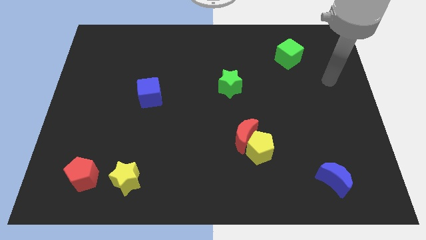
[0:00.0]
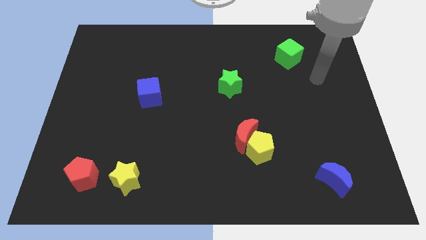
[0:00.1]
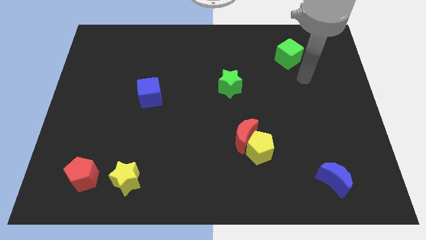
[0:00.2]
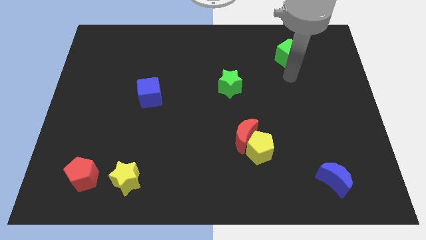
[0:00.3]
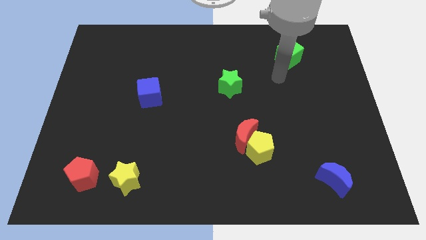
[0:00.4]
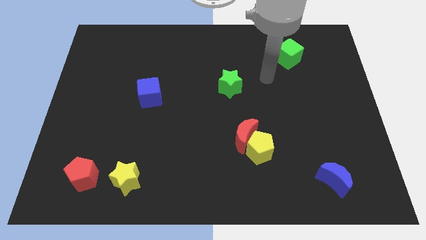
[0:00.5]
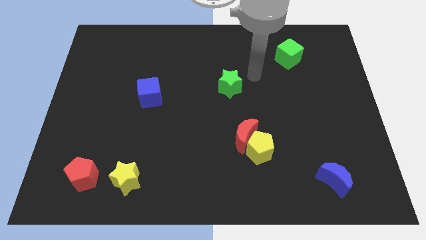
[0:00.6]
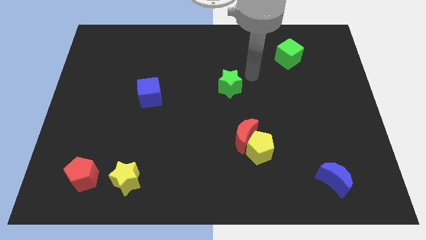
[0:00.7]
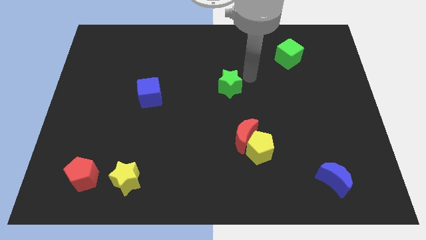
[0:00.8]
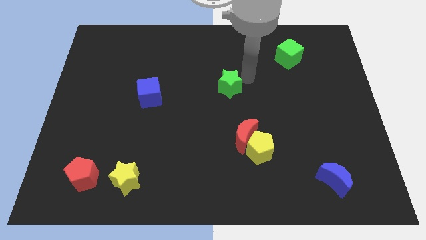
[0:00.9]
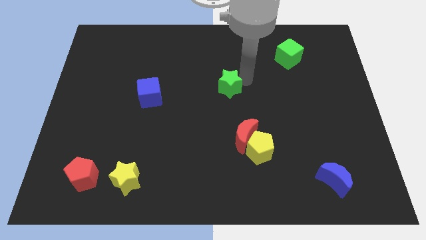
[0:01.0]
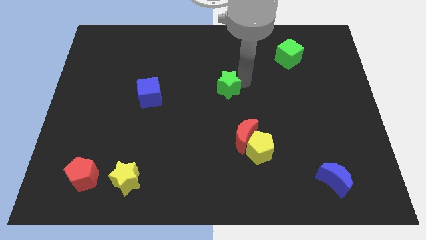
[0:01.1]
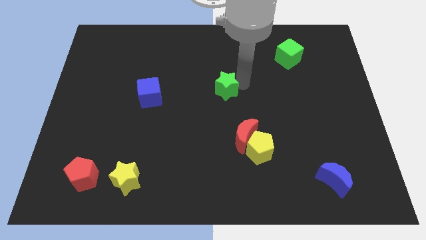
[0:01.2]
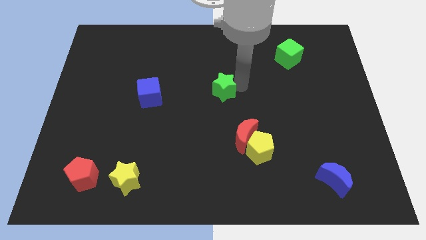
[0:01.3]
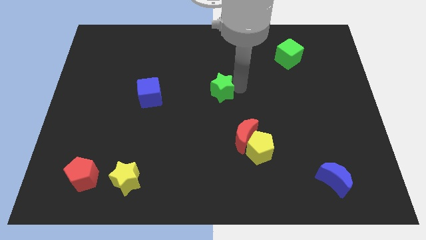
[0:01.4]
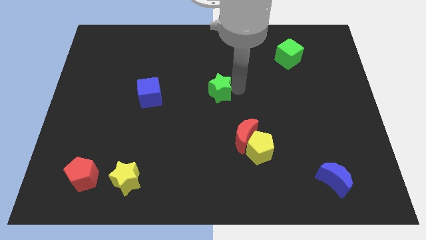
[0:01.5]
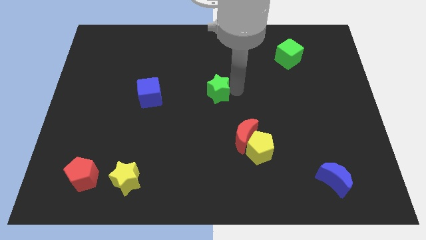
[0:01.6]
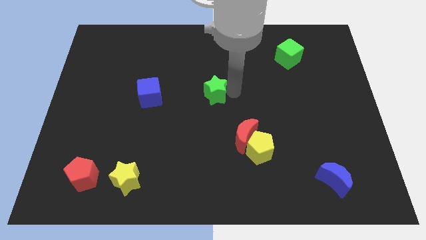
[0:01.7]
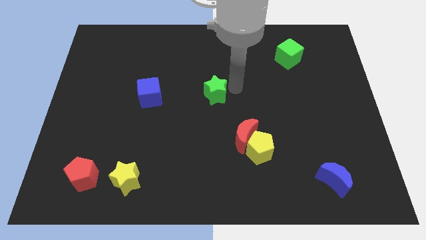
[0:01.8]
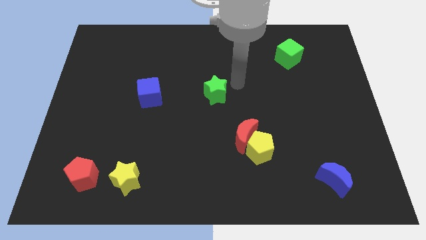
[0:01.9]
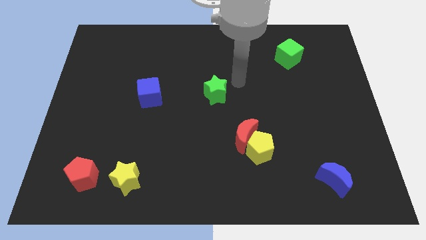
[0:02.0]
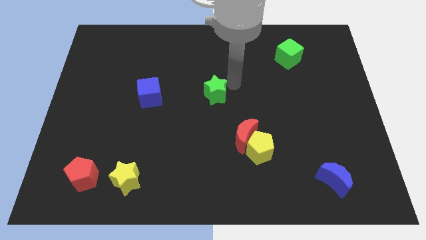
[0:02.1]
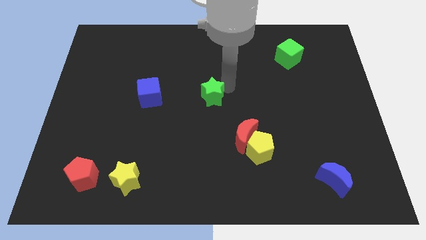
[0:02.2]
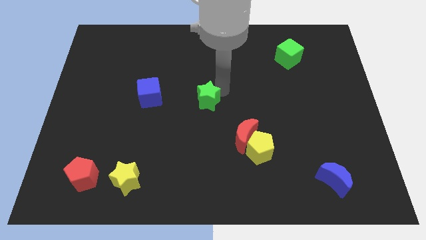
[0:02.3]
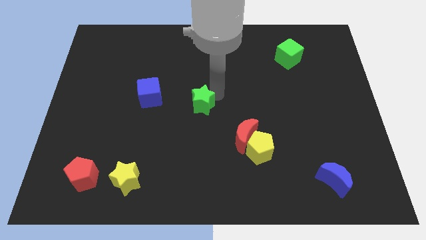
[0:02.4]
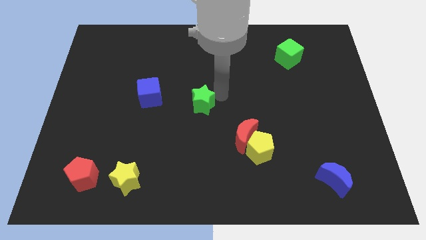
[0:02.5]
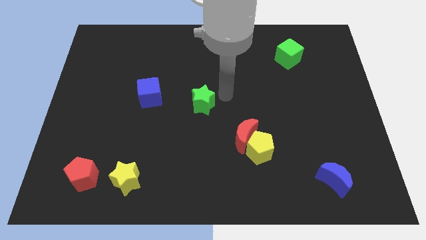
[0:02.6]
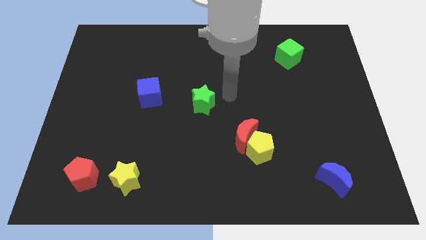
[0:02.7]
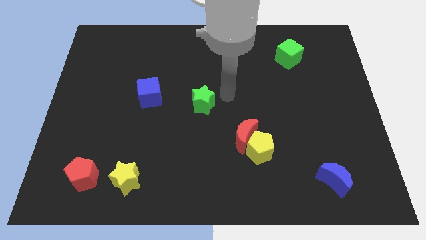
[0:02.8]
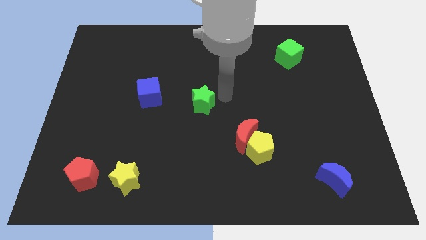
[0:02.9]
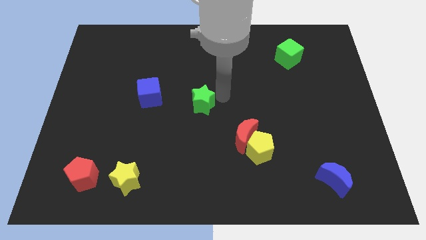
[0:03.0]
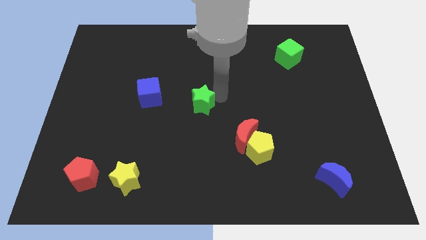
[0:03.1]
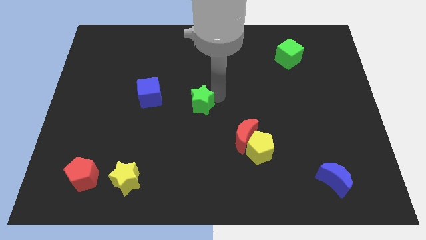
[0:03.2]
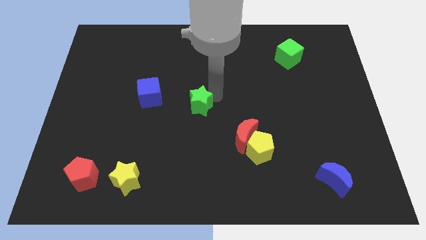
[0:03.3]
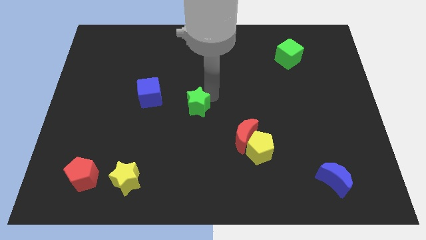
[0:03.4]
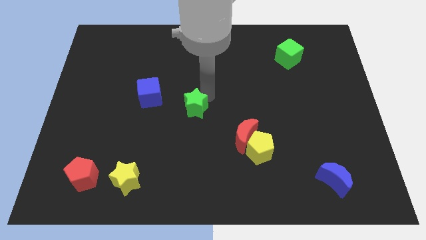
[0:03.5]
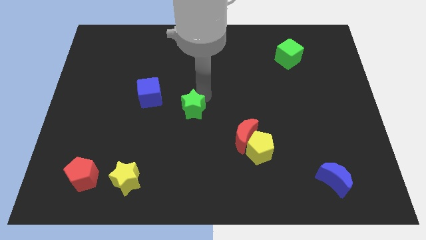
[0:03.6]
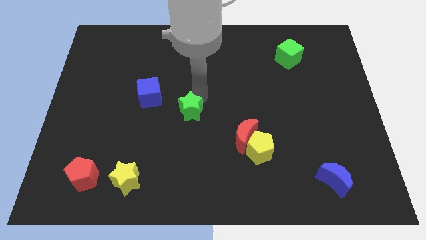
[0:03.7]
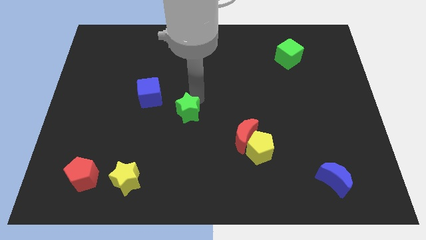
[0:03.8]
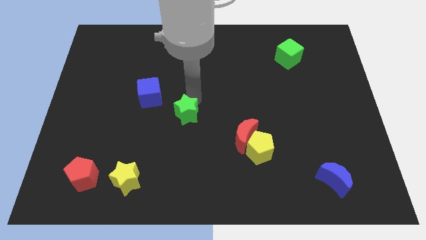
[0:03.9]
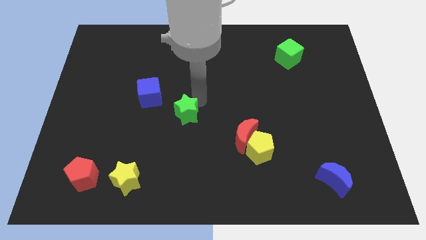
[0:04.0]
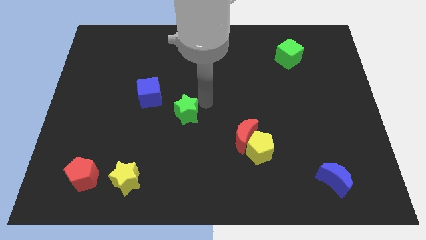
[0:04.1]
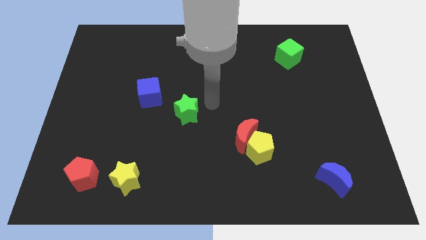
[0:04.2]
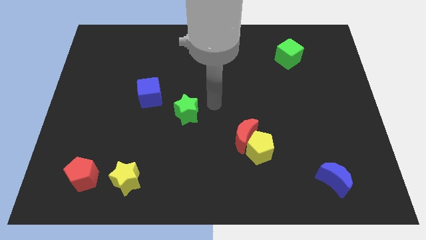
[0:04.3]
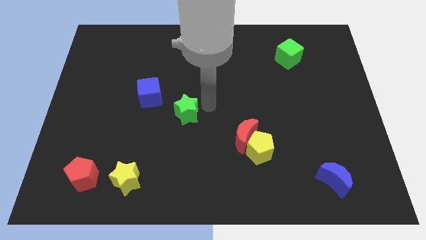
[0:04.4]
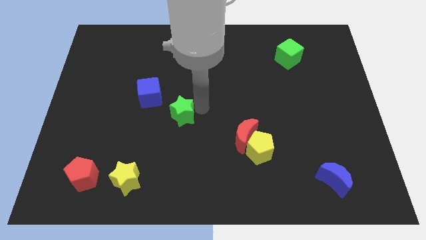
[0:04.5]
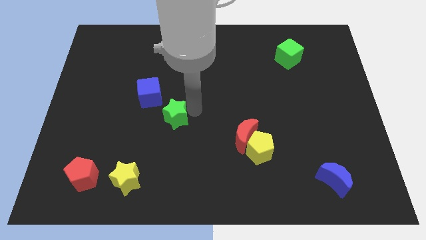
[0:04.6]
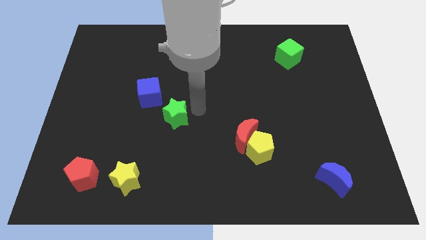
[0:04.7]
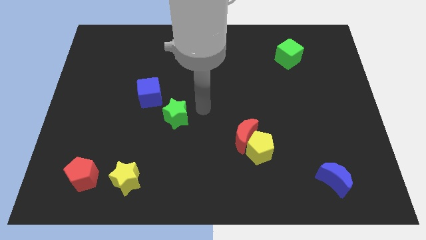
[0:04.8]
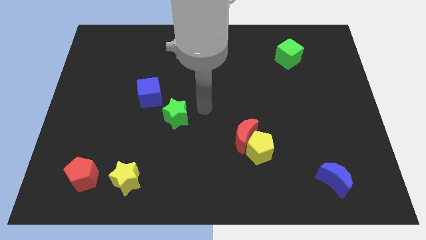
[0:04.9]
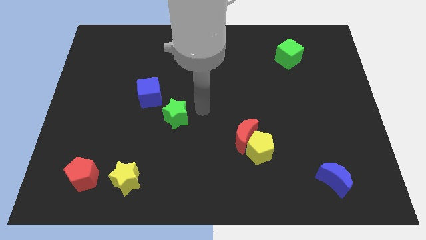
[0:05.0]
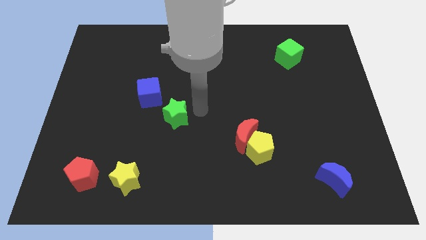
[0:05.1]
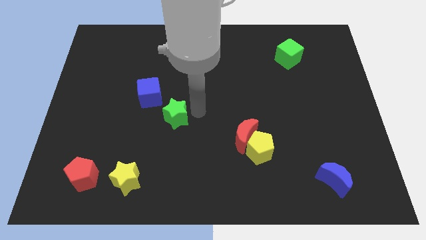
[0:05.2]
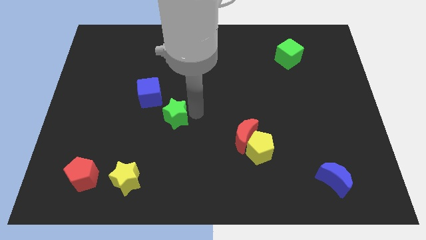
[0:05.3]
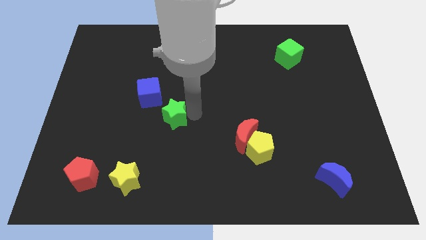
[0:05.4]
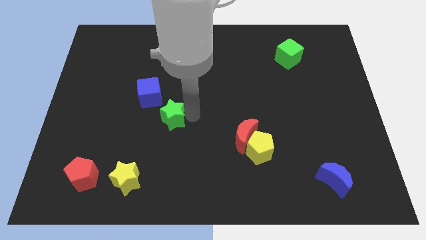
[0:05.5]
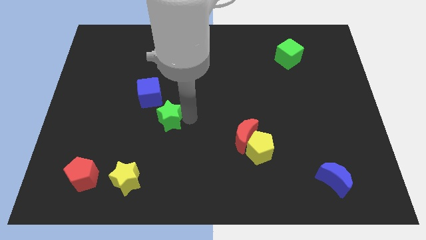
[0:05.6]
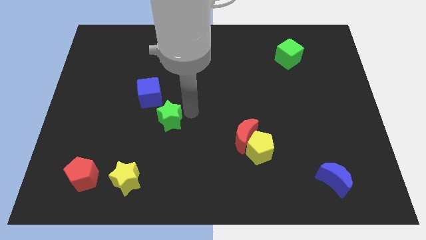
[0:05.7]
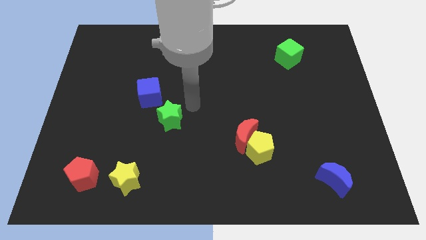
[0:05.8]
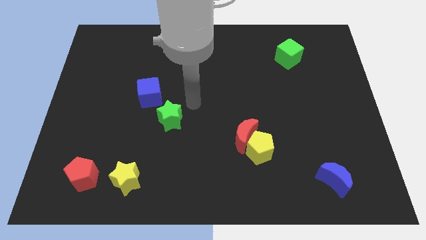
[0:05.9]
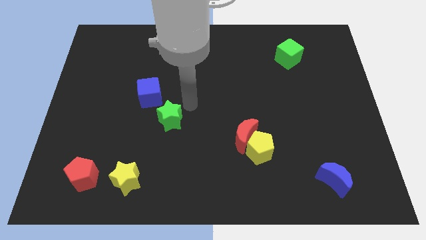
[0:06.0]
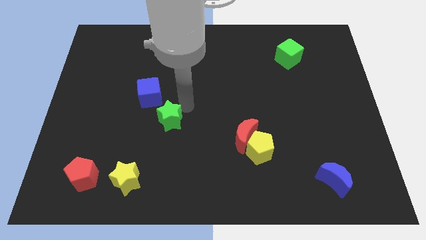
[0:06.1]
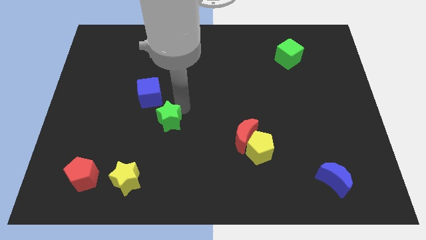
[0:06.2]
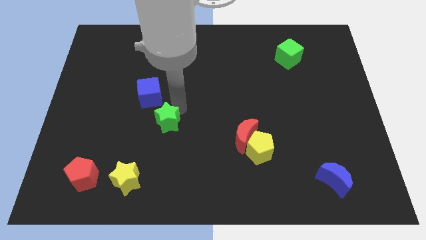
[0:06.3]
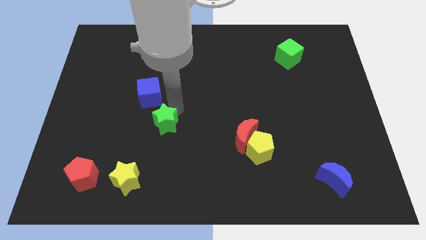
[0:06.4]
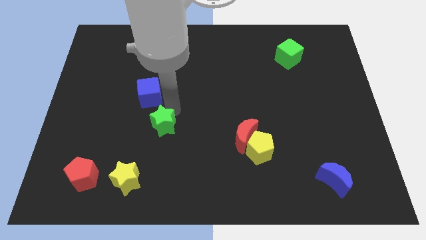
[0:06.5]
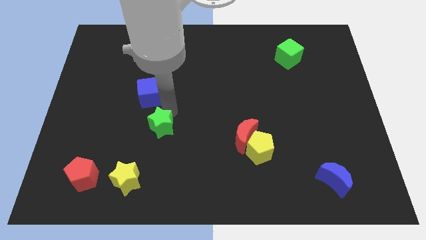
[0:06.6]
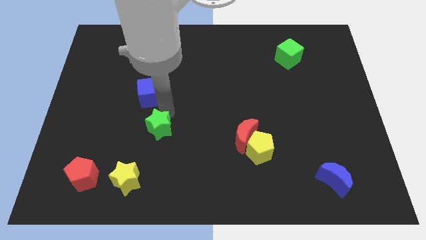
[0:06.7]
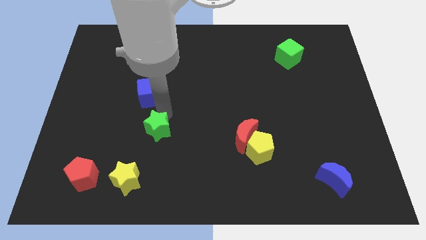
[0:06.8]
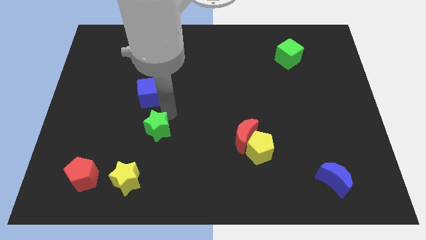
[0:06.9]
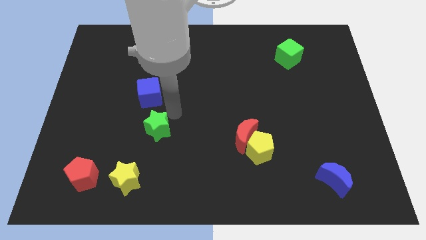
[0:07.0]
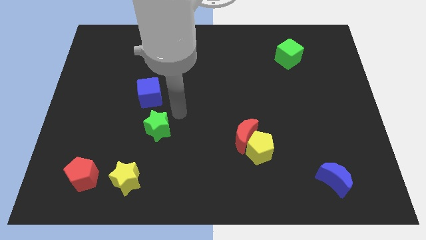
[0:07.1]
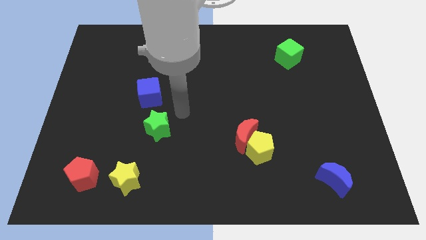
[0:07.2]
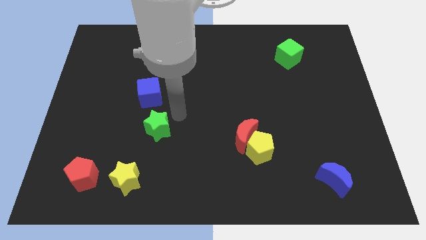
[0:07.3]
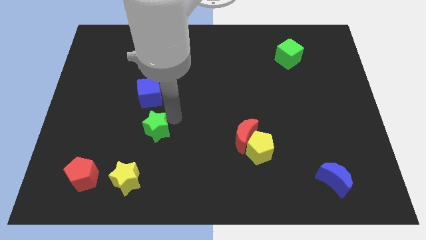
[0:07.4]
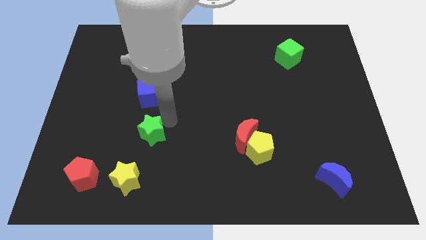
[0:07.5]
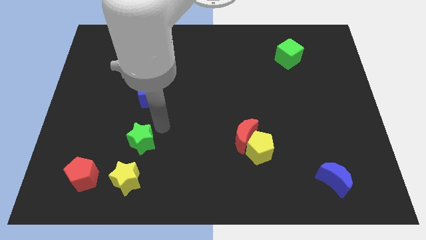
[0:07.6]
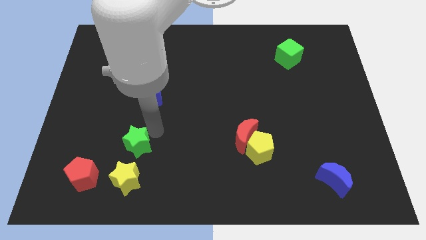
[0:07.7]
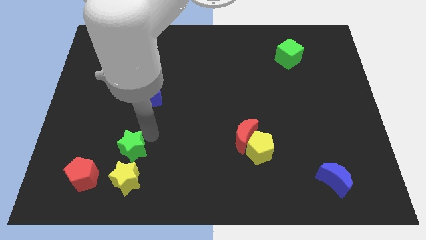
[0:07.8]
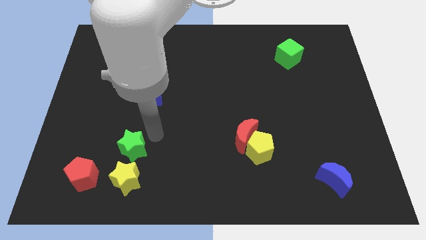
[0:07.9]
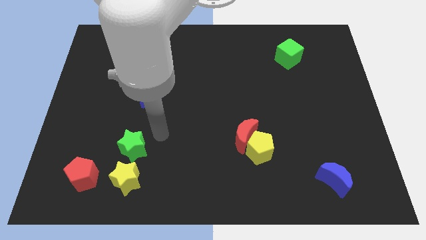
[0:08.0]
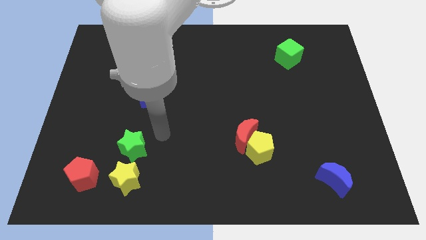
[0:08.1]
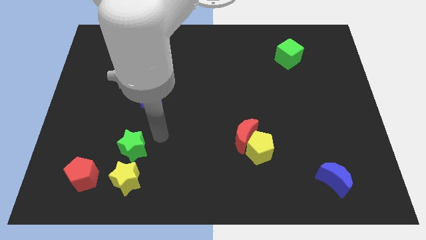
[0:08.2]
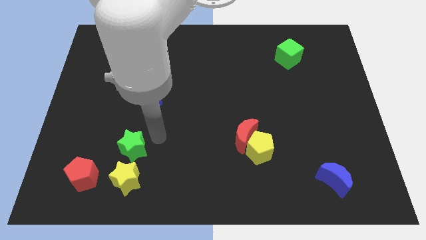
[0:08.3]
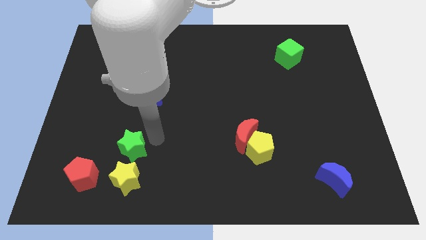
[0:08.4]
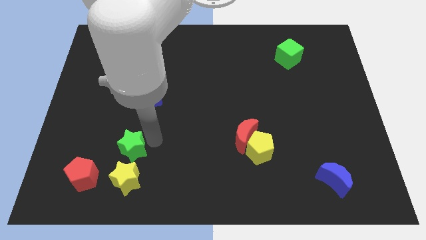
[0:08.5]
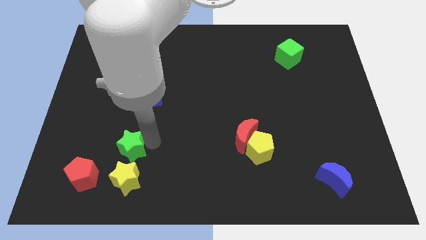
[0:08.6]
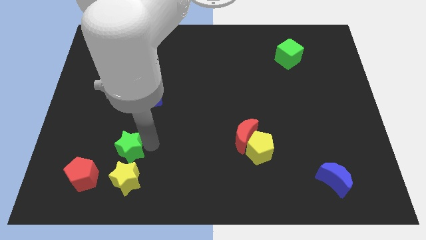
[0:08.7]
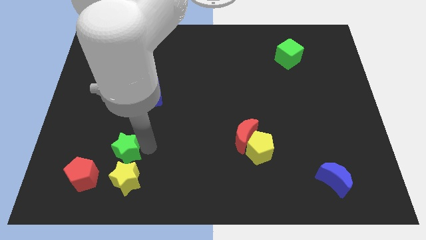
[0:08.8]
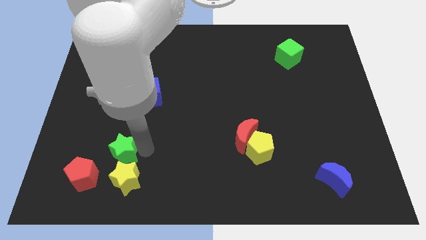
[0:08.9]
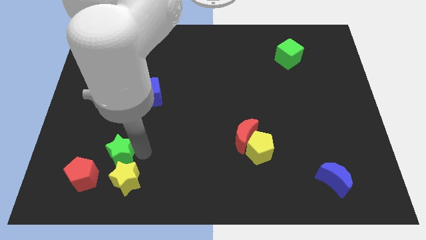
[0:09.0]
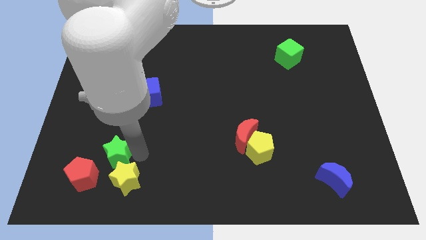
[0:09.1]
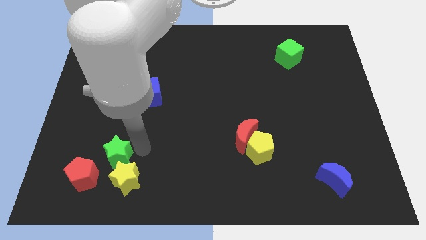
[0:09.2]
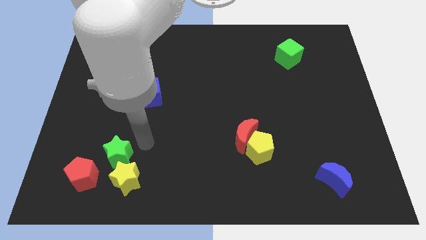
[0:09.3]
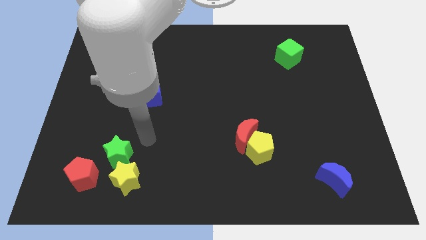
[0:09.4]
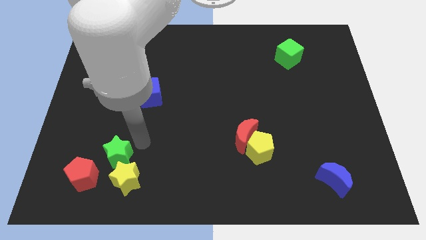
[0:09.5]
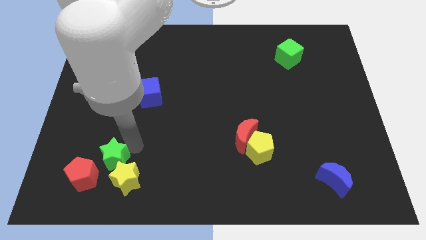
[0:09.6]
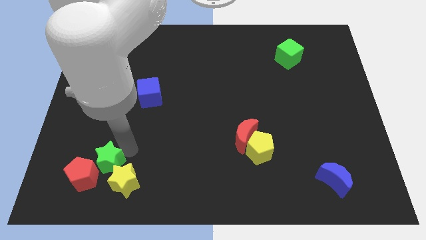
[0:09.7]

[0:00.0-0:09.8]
slide the green star close to the red pentagon
